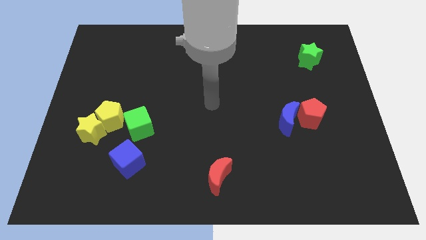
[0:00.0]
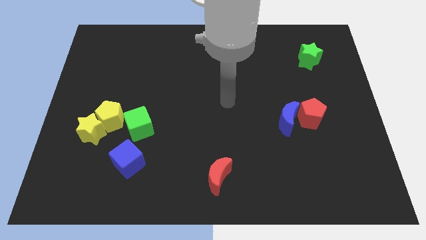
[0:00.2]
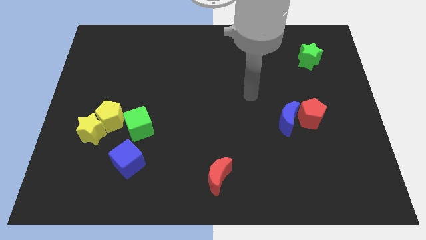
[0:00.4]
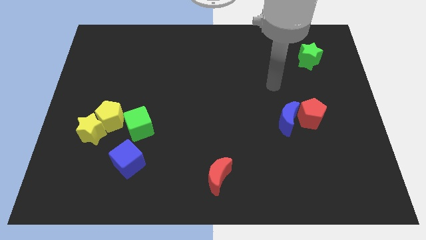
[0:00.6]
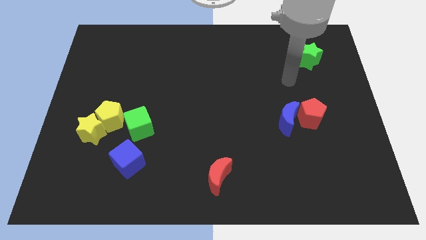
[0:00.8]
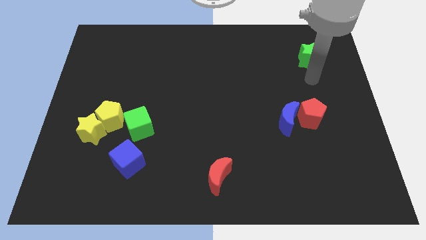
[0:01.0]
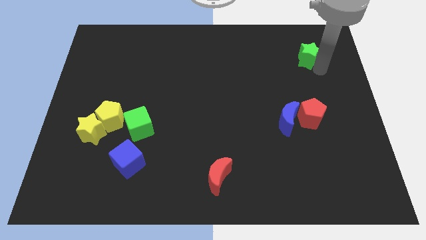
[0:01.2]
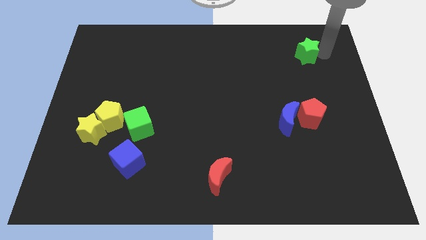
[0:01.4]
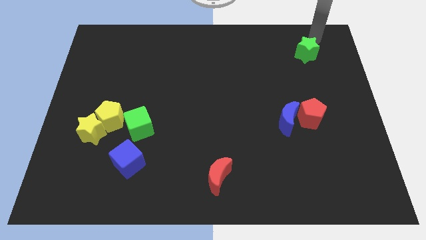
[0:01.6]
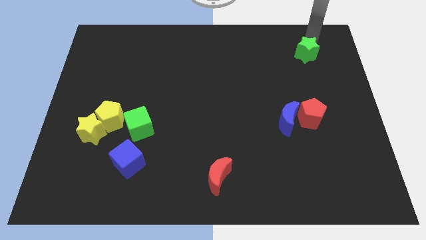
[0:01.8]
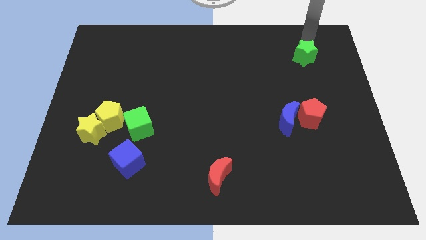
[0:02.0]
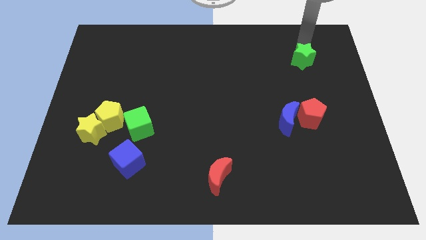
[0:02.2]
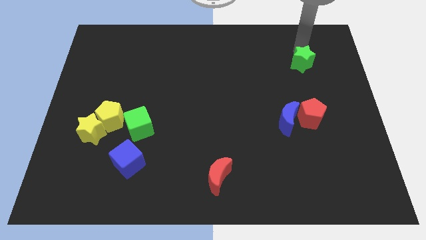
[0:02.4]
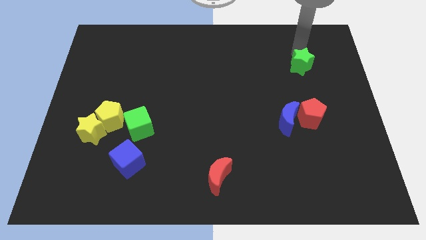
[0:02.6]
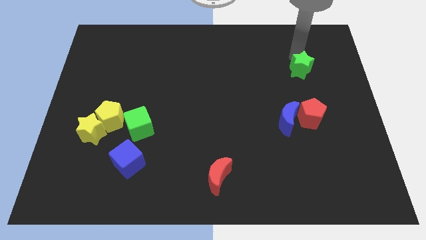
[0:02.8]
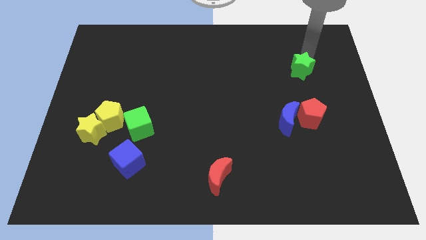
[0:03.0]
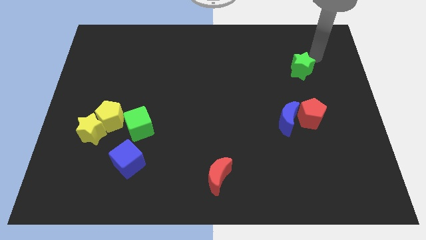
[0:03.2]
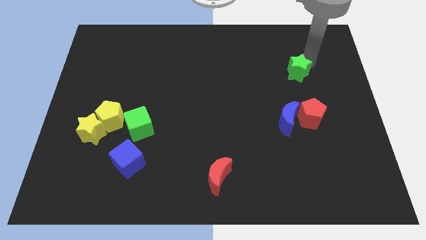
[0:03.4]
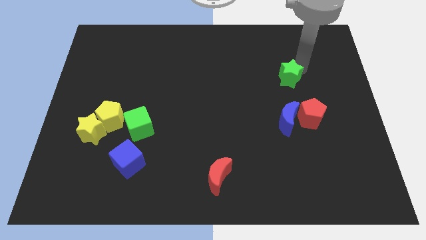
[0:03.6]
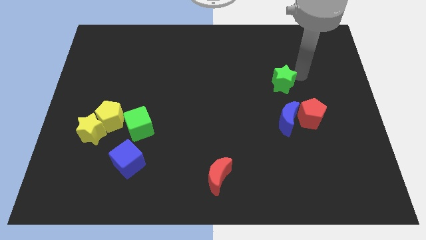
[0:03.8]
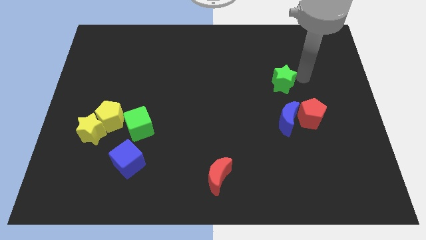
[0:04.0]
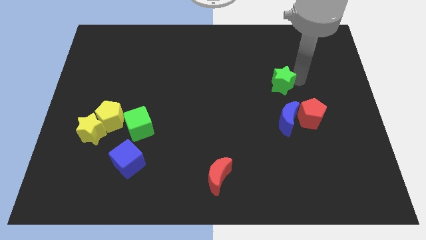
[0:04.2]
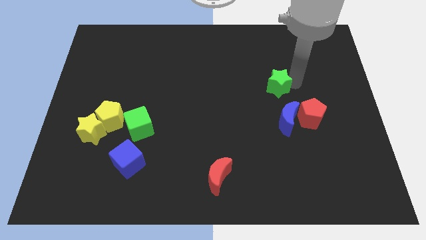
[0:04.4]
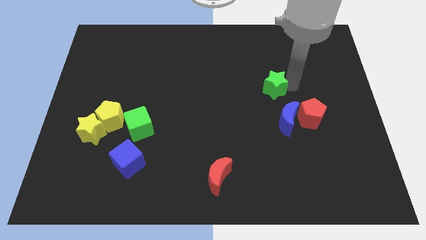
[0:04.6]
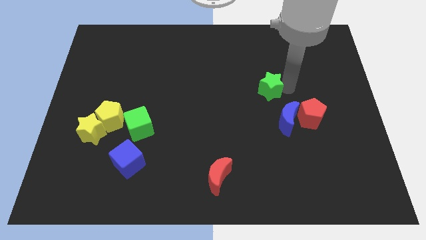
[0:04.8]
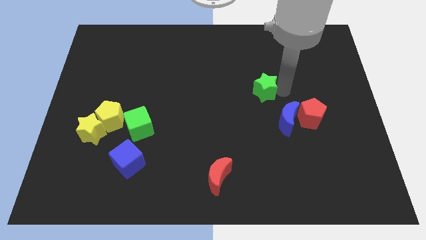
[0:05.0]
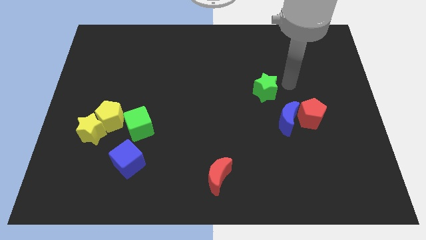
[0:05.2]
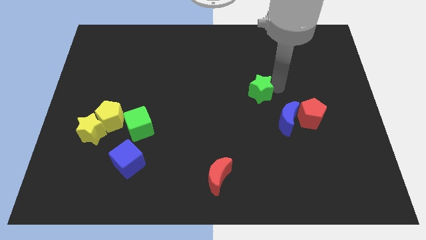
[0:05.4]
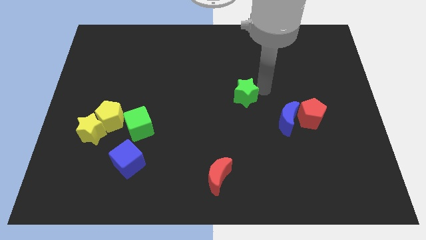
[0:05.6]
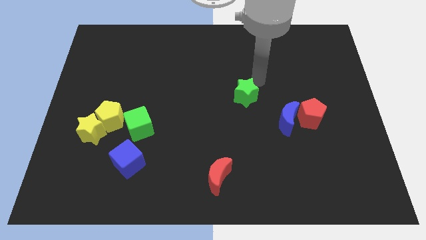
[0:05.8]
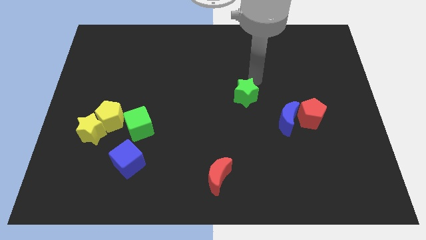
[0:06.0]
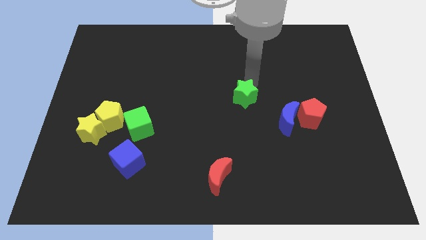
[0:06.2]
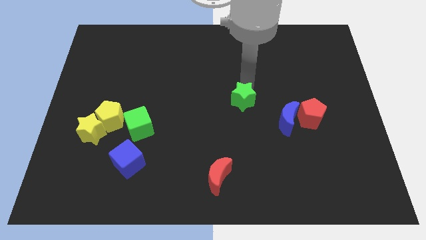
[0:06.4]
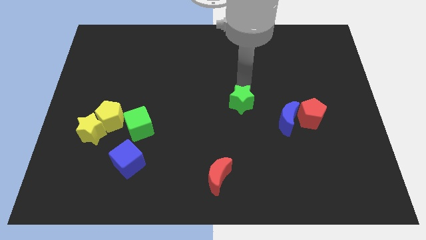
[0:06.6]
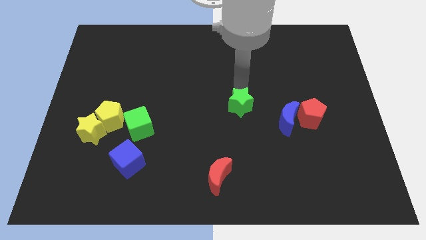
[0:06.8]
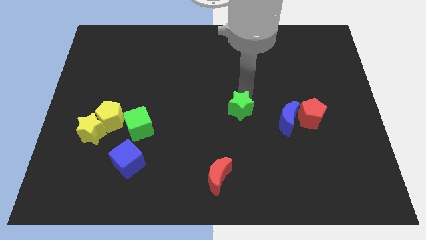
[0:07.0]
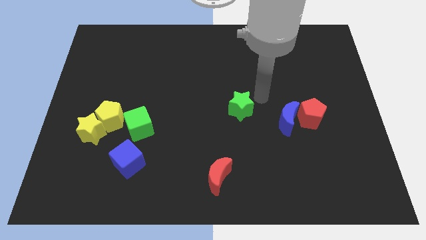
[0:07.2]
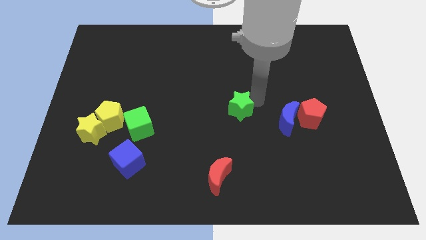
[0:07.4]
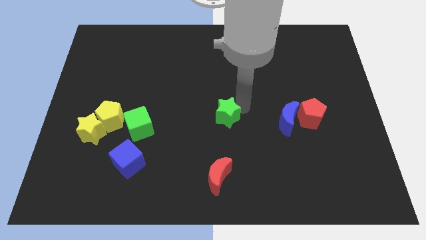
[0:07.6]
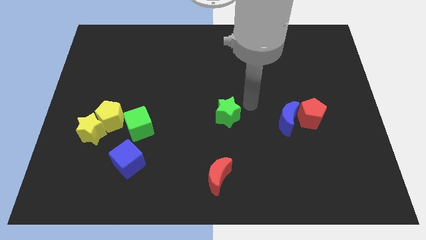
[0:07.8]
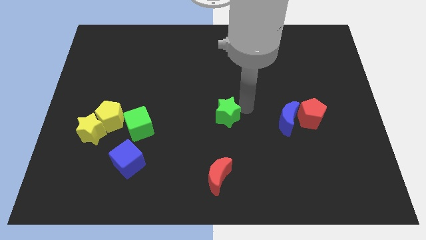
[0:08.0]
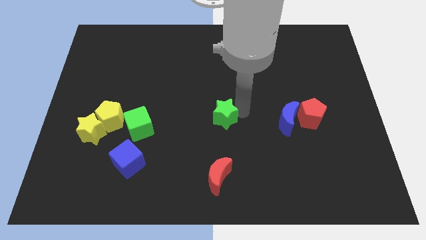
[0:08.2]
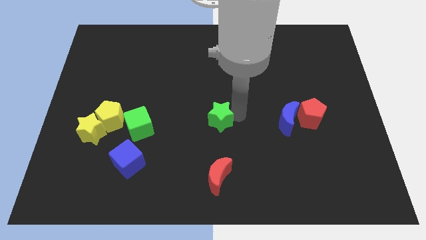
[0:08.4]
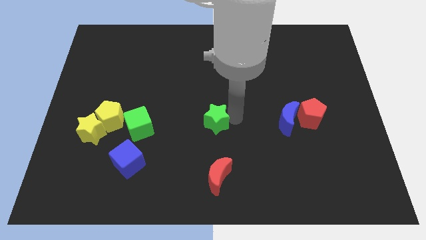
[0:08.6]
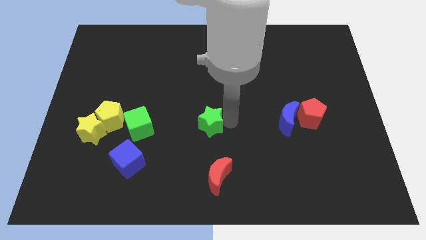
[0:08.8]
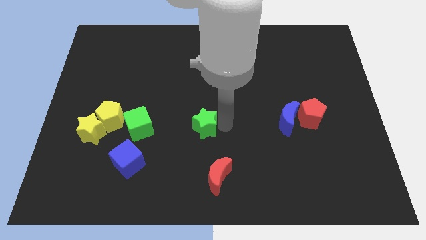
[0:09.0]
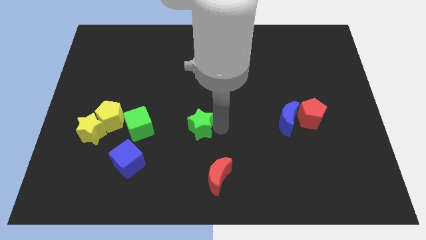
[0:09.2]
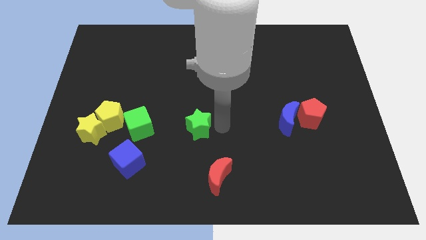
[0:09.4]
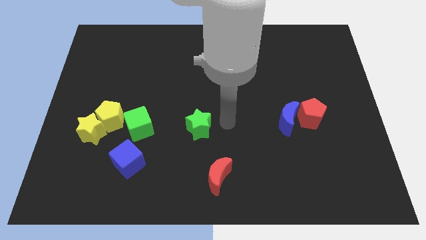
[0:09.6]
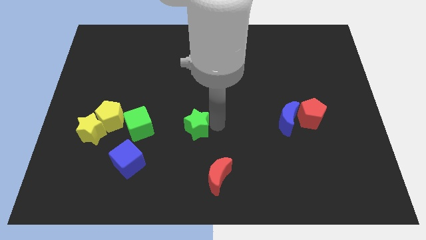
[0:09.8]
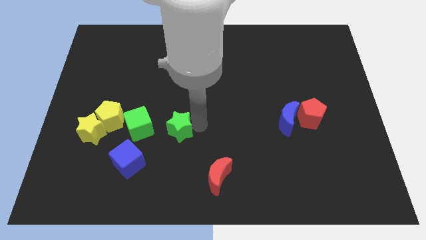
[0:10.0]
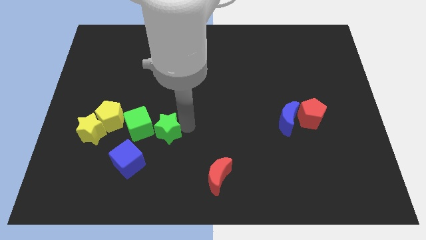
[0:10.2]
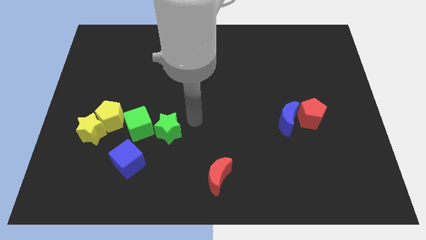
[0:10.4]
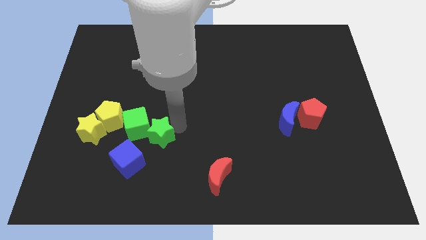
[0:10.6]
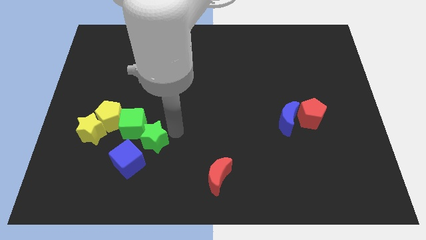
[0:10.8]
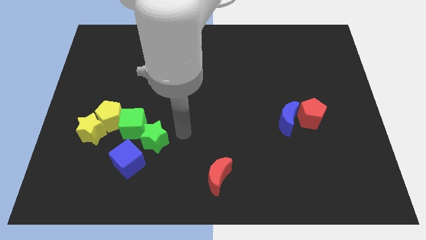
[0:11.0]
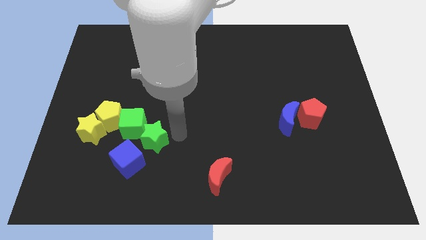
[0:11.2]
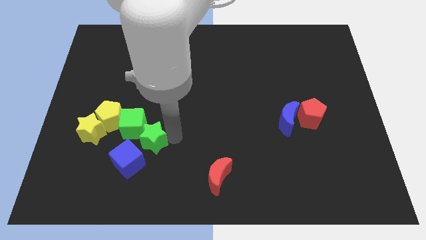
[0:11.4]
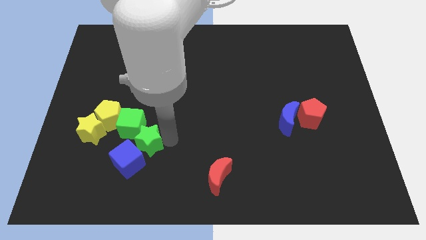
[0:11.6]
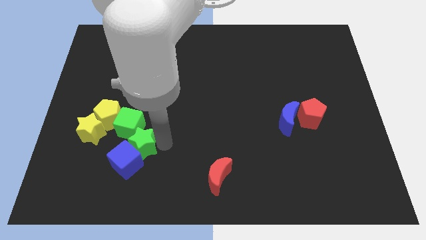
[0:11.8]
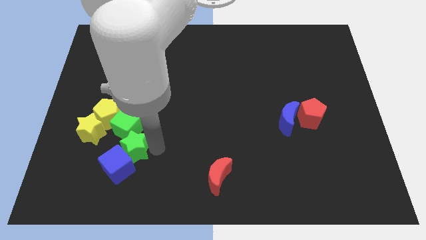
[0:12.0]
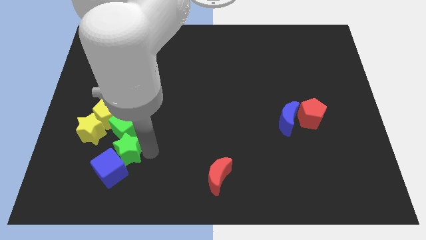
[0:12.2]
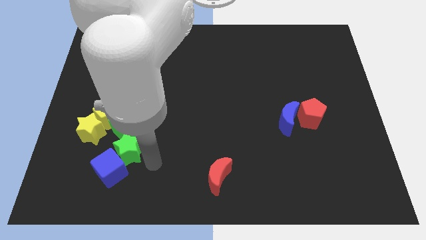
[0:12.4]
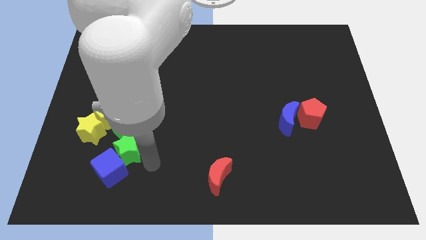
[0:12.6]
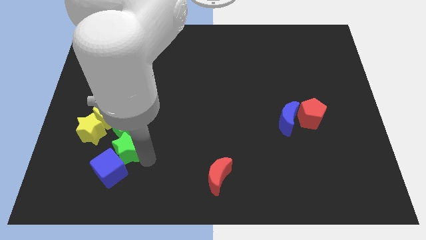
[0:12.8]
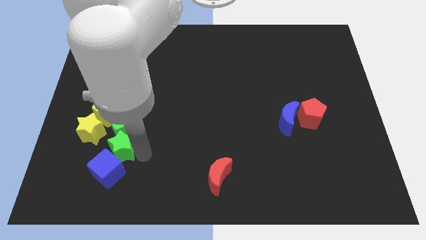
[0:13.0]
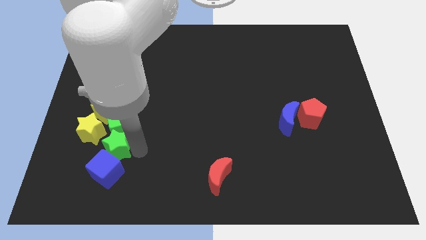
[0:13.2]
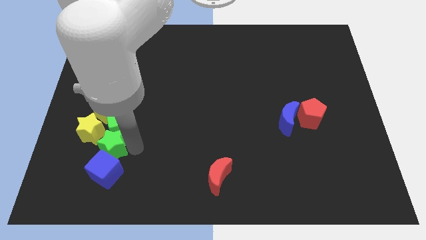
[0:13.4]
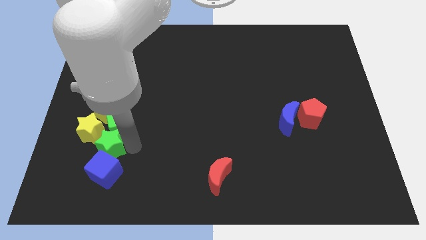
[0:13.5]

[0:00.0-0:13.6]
slide the green star to the yellow star
